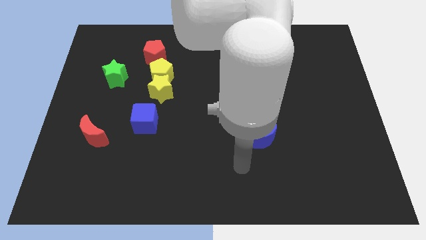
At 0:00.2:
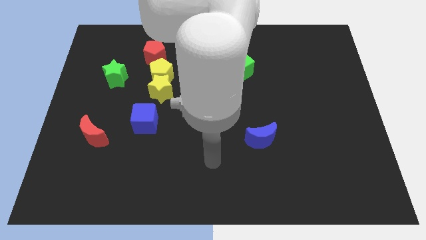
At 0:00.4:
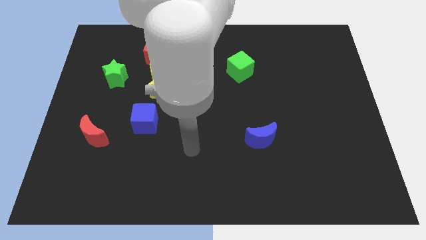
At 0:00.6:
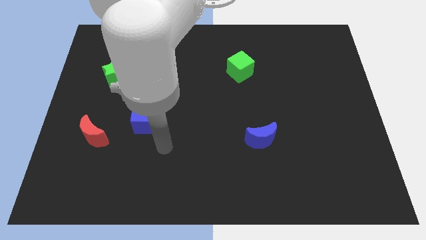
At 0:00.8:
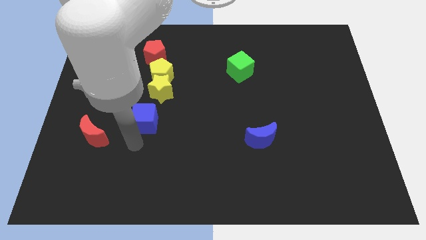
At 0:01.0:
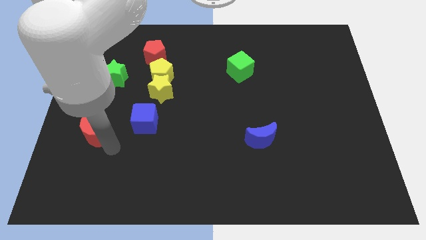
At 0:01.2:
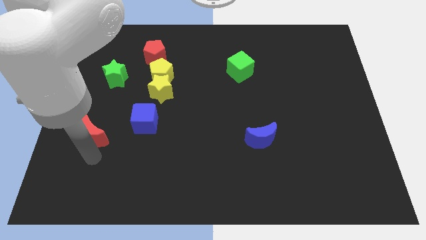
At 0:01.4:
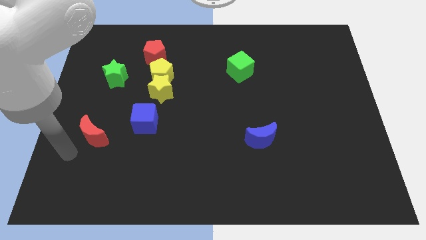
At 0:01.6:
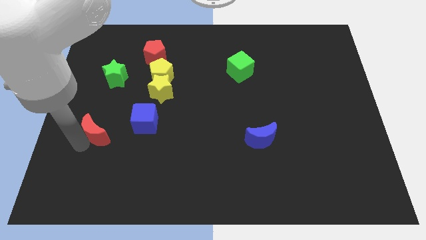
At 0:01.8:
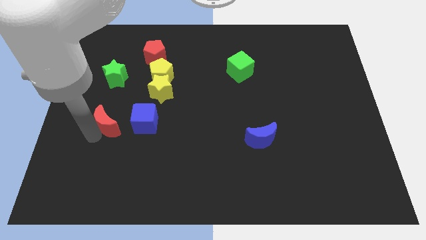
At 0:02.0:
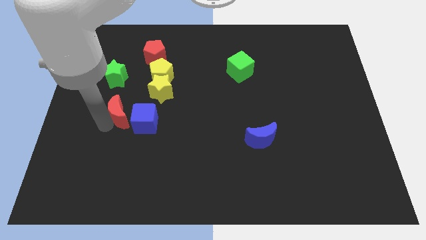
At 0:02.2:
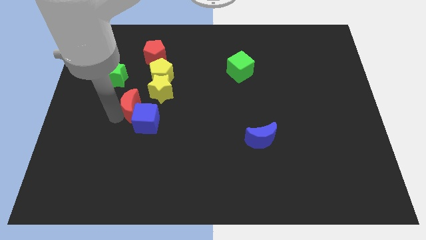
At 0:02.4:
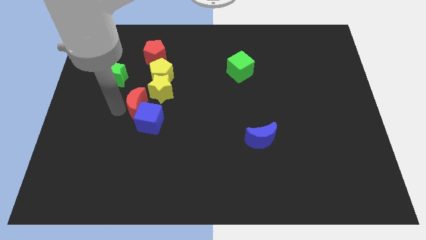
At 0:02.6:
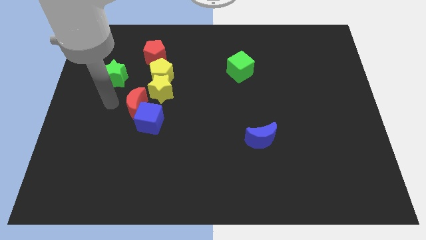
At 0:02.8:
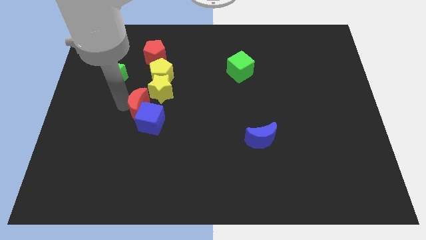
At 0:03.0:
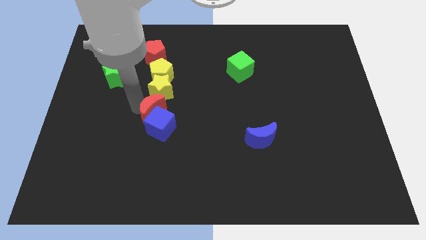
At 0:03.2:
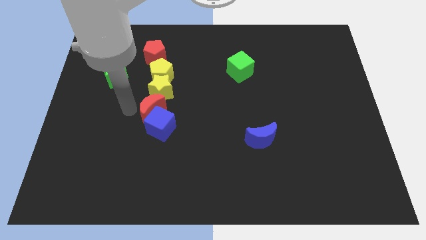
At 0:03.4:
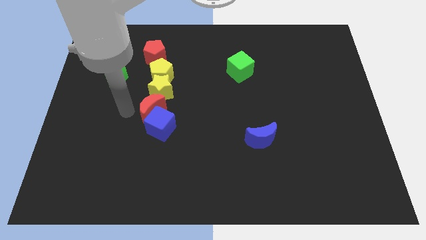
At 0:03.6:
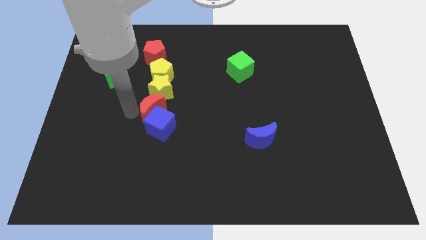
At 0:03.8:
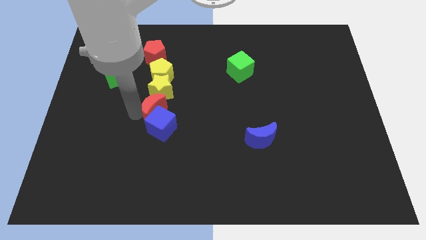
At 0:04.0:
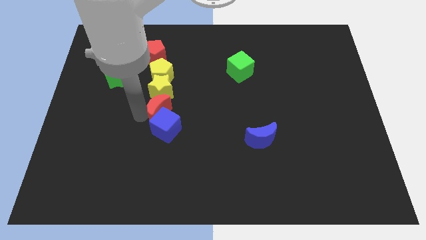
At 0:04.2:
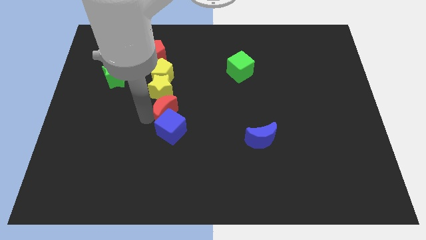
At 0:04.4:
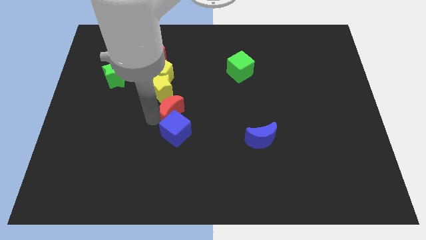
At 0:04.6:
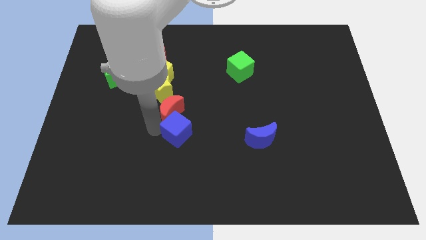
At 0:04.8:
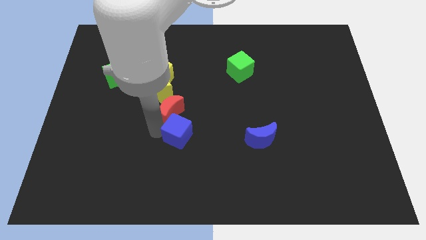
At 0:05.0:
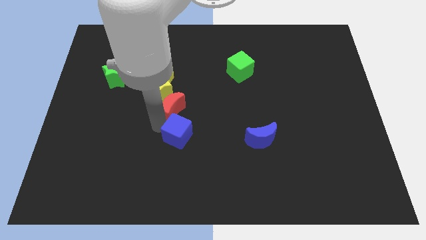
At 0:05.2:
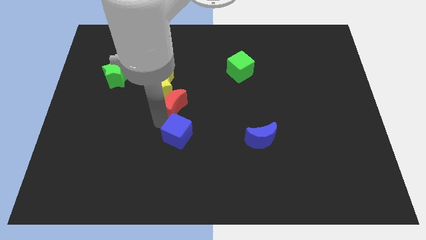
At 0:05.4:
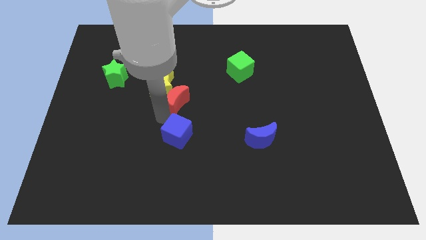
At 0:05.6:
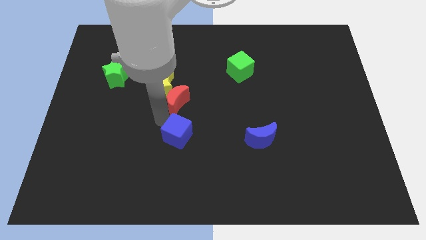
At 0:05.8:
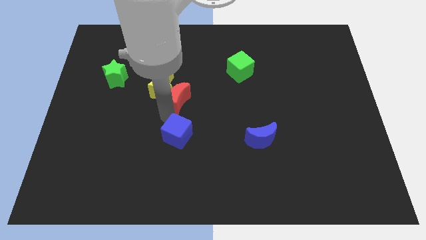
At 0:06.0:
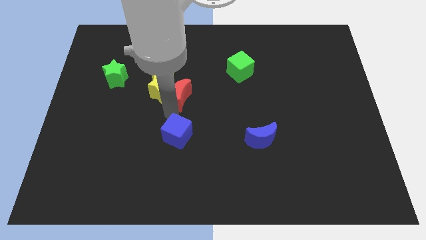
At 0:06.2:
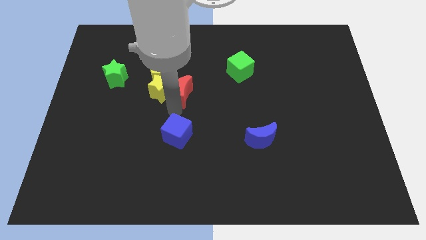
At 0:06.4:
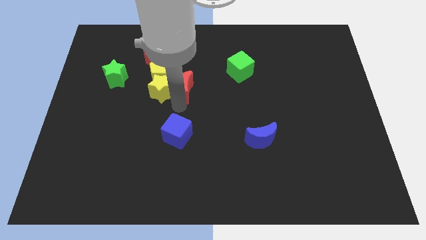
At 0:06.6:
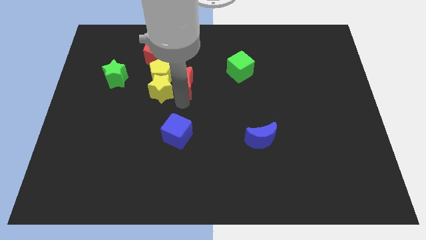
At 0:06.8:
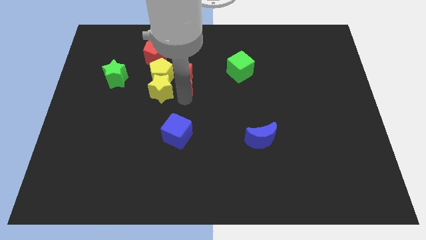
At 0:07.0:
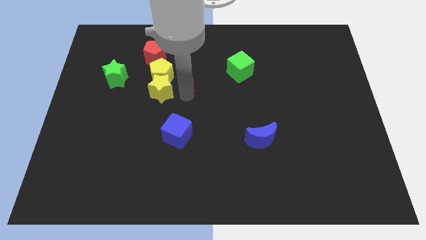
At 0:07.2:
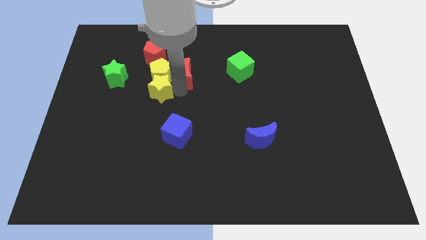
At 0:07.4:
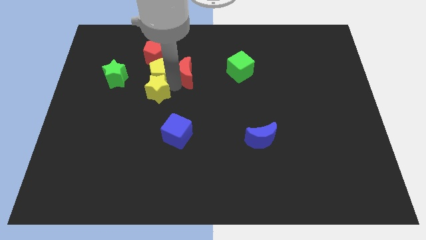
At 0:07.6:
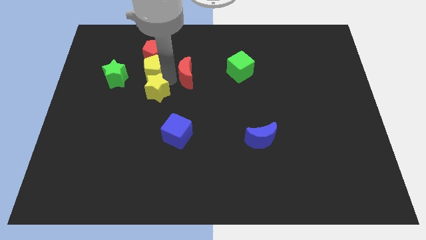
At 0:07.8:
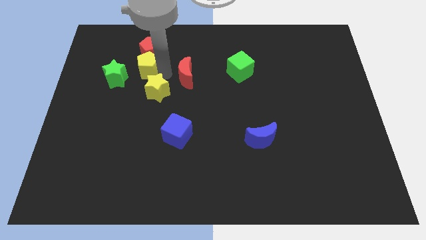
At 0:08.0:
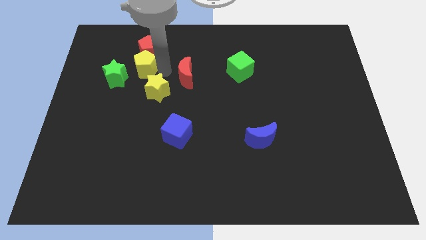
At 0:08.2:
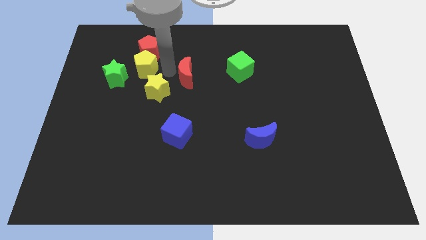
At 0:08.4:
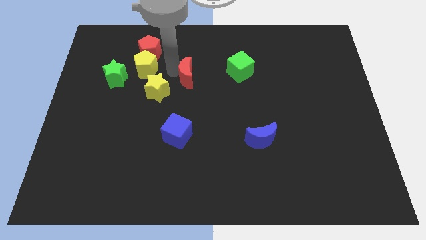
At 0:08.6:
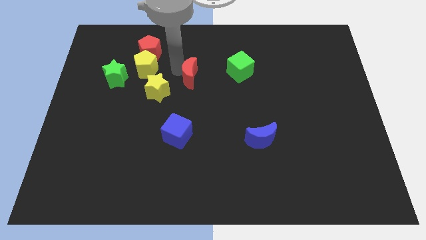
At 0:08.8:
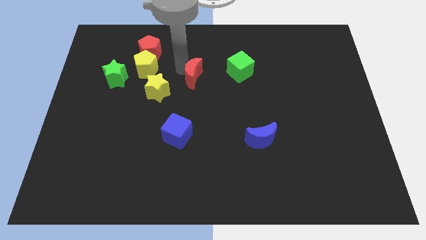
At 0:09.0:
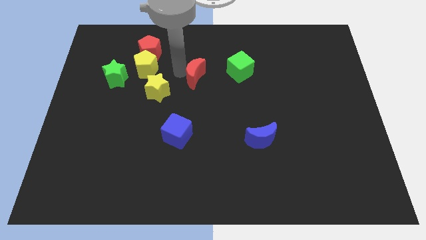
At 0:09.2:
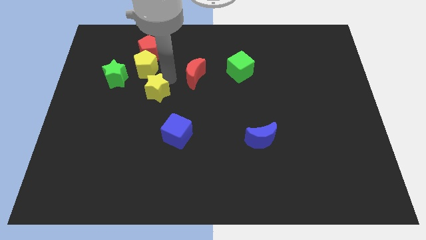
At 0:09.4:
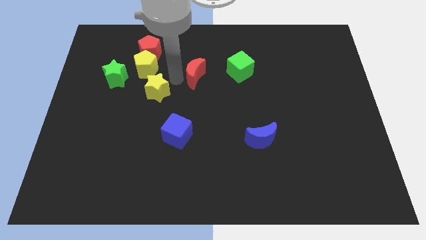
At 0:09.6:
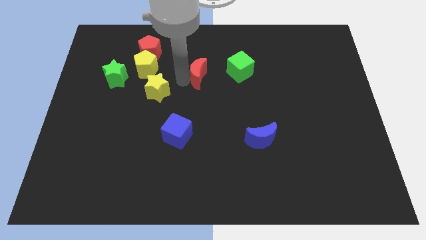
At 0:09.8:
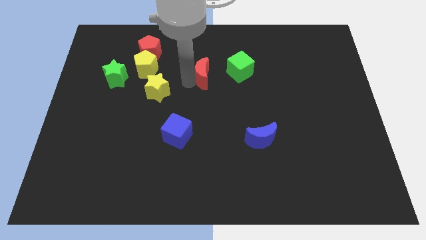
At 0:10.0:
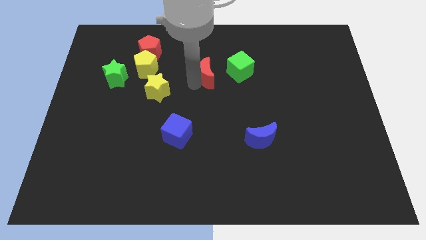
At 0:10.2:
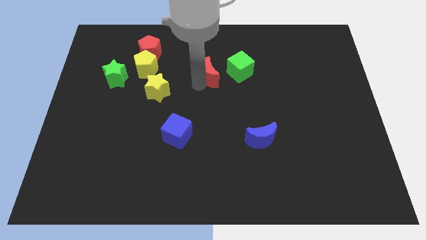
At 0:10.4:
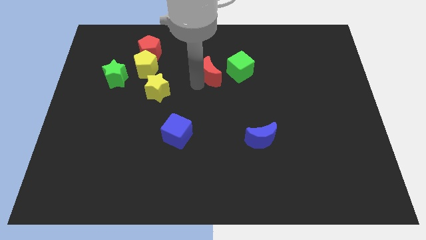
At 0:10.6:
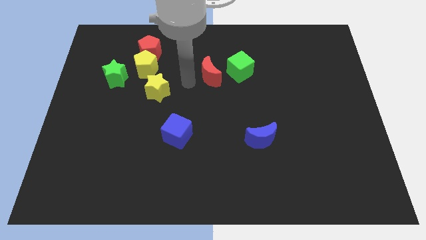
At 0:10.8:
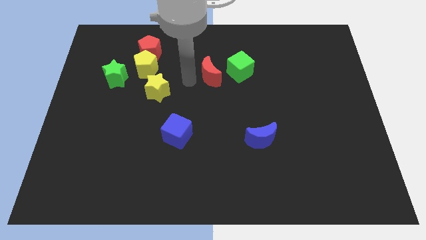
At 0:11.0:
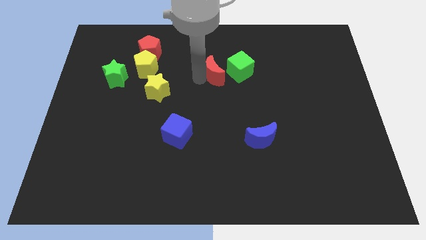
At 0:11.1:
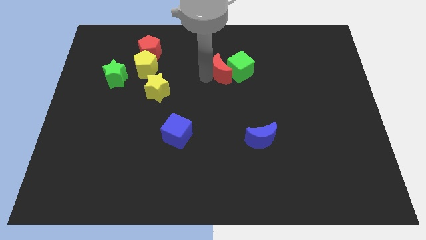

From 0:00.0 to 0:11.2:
put the red moon close to the green cube

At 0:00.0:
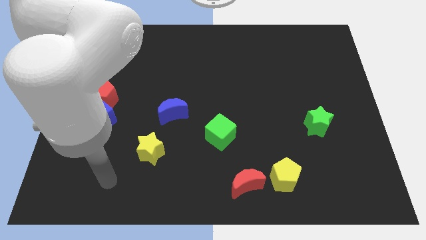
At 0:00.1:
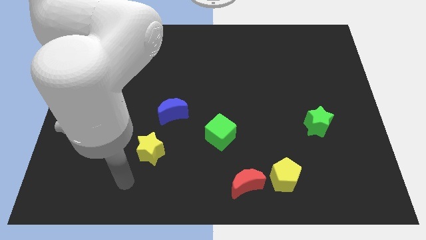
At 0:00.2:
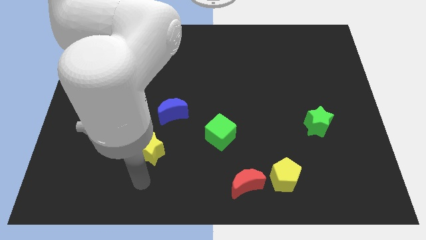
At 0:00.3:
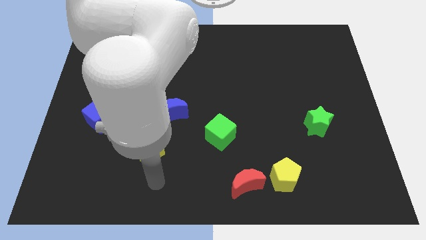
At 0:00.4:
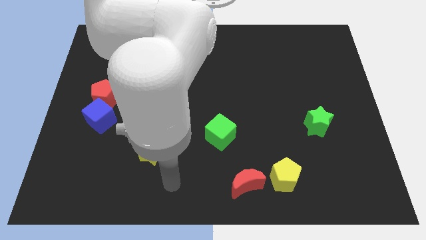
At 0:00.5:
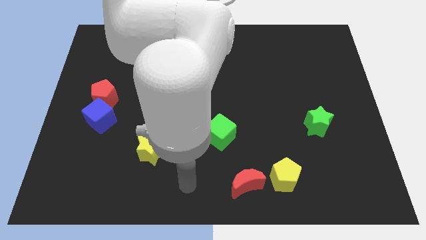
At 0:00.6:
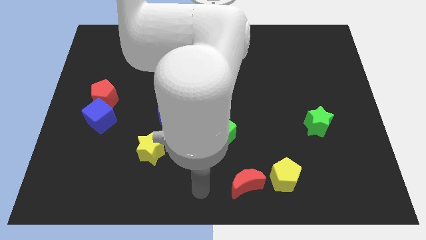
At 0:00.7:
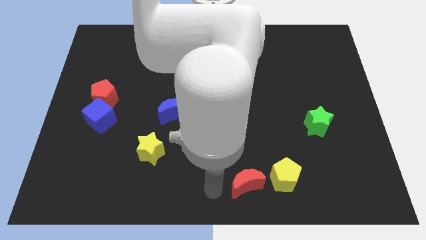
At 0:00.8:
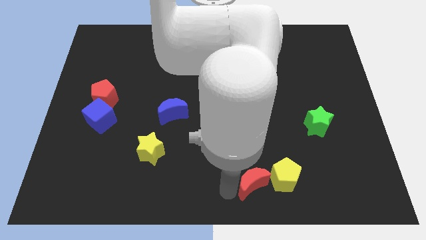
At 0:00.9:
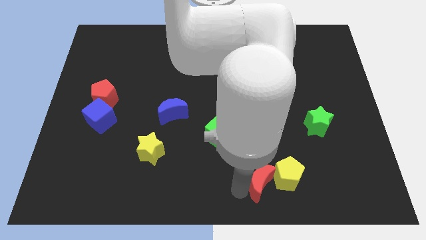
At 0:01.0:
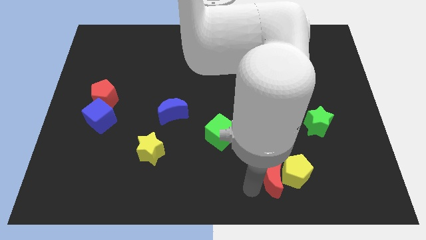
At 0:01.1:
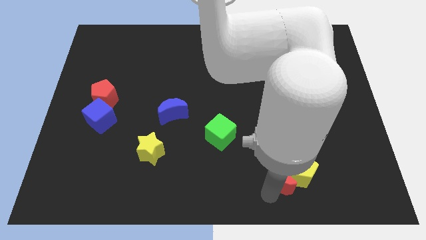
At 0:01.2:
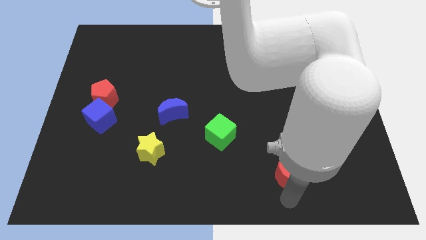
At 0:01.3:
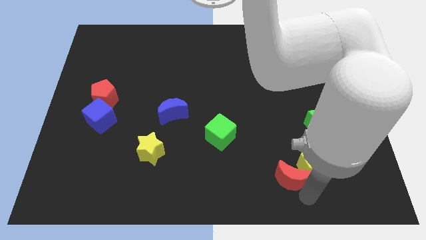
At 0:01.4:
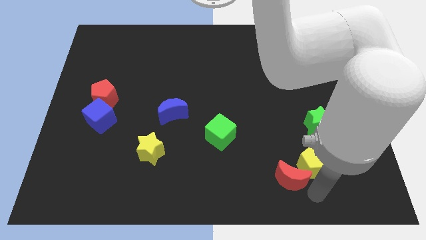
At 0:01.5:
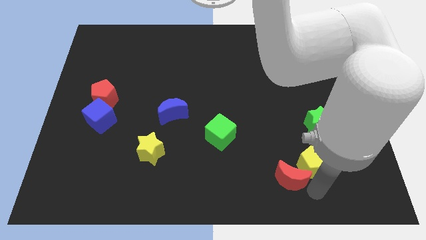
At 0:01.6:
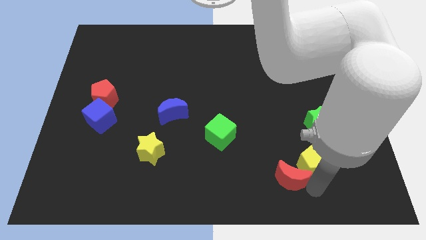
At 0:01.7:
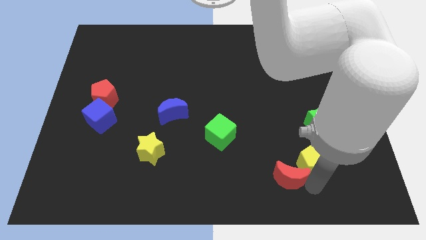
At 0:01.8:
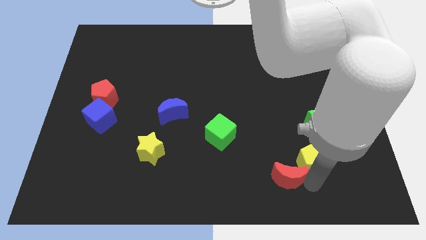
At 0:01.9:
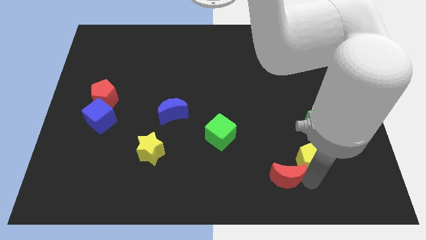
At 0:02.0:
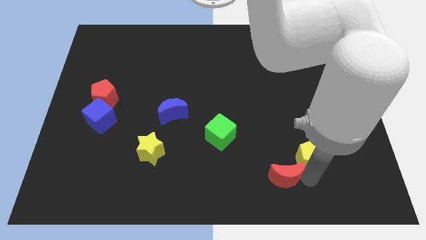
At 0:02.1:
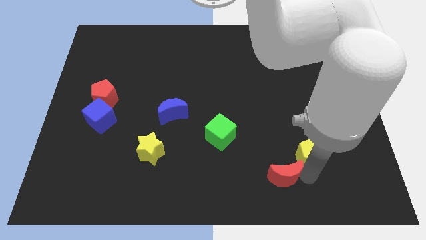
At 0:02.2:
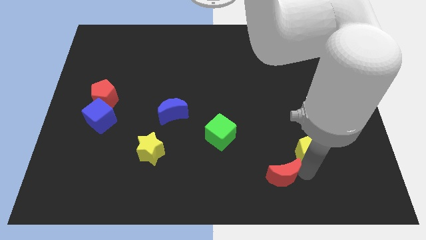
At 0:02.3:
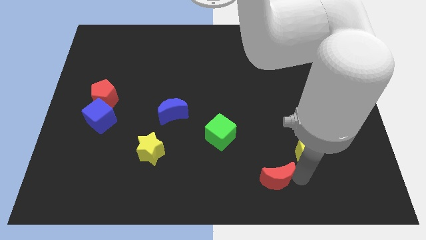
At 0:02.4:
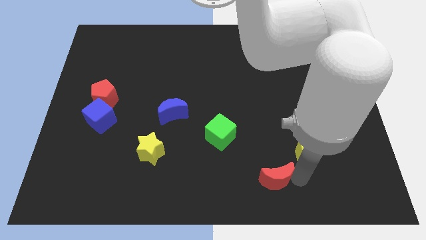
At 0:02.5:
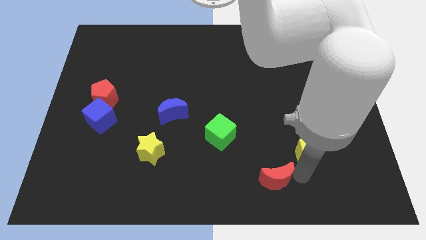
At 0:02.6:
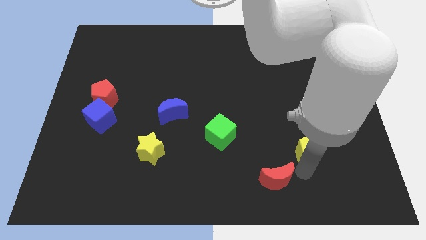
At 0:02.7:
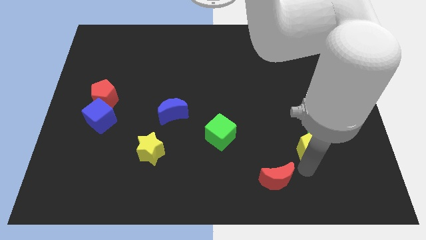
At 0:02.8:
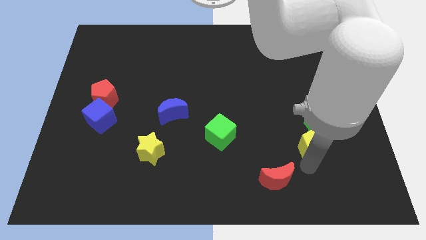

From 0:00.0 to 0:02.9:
move the yellow pentagon towards the green star
